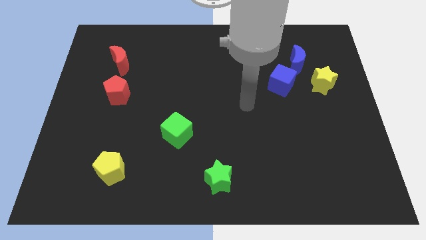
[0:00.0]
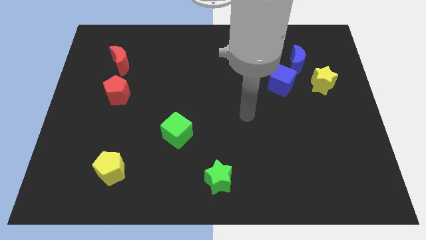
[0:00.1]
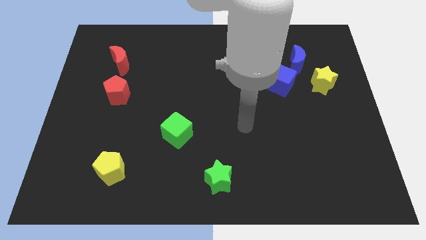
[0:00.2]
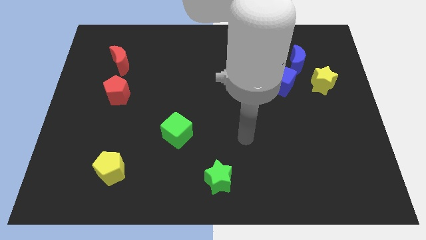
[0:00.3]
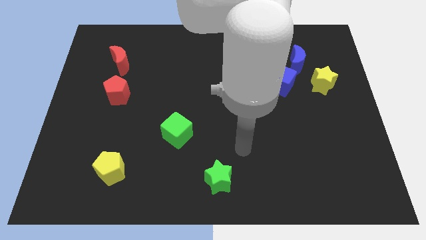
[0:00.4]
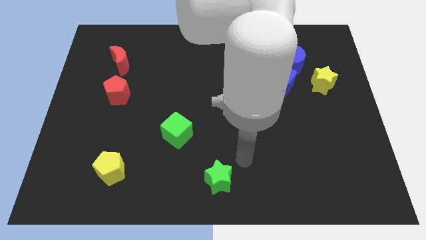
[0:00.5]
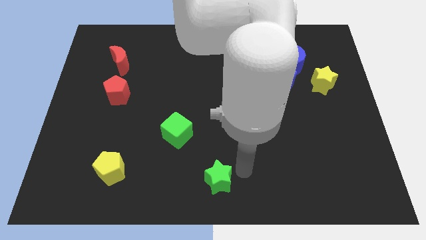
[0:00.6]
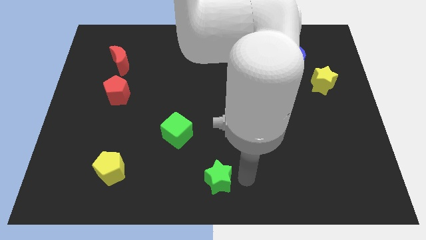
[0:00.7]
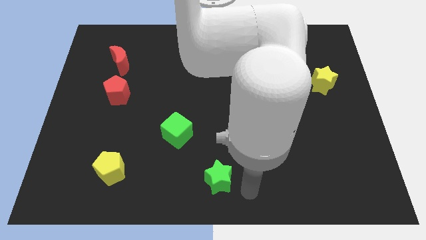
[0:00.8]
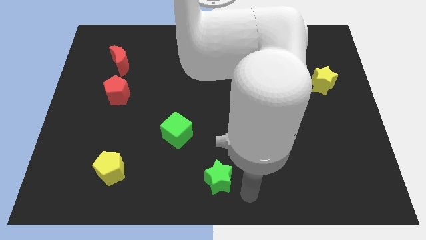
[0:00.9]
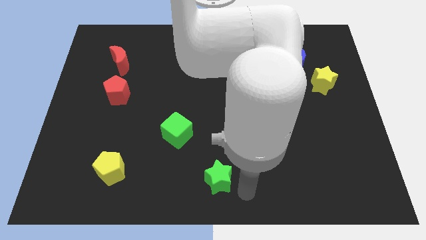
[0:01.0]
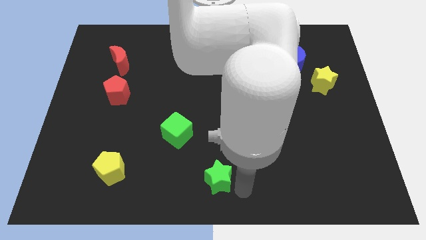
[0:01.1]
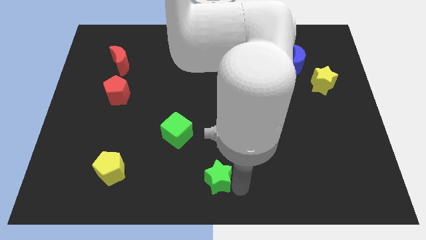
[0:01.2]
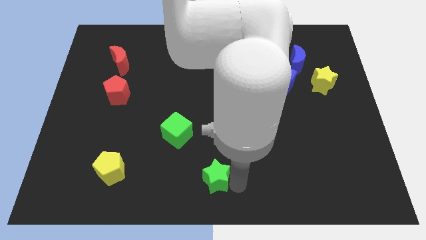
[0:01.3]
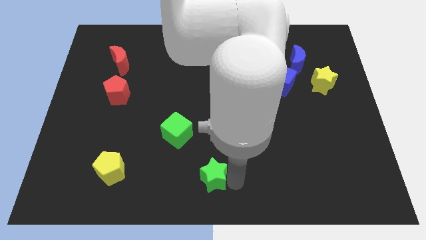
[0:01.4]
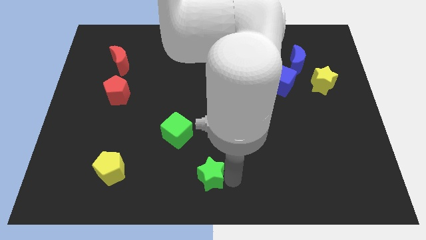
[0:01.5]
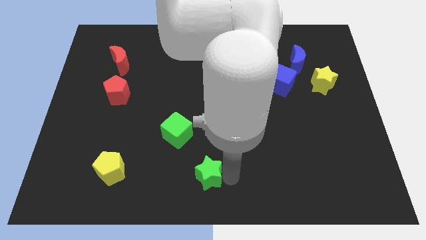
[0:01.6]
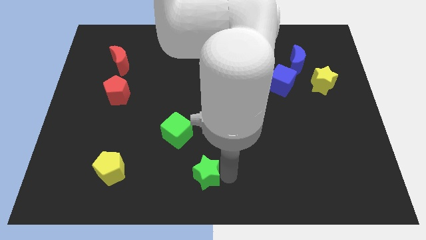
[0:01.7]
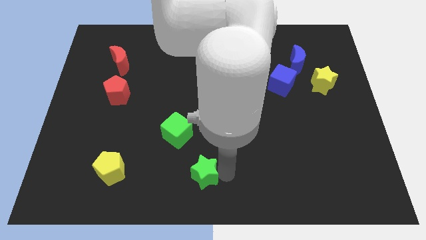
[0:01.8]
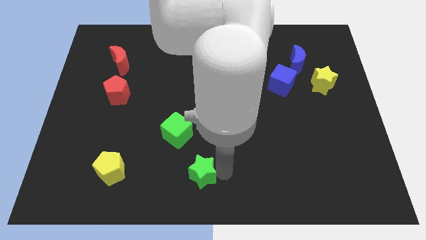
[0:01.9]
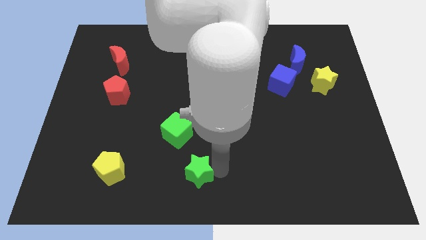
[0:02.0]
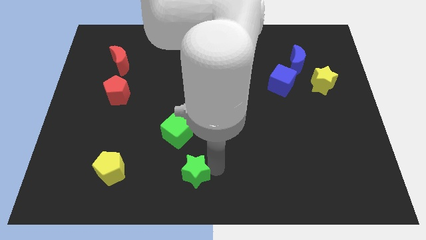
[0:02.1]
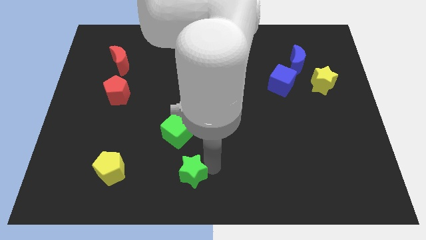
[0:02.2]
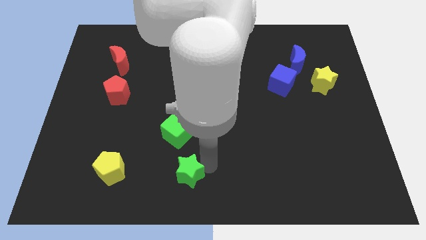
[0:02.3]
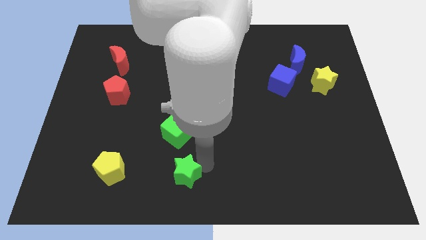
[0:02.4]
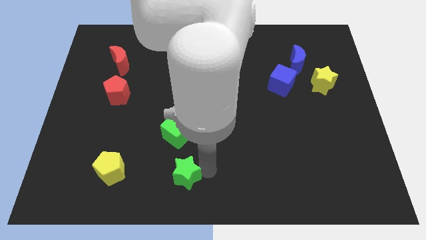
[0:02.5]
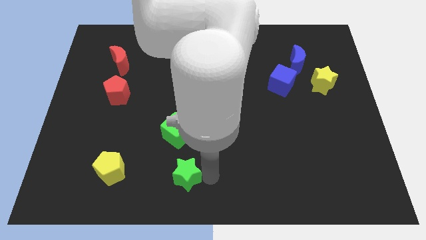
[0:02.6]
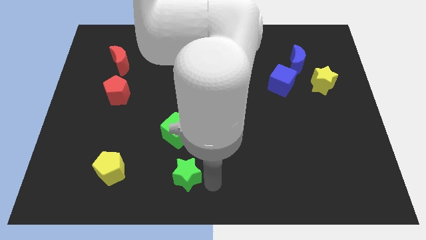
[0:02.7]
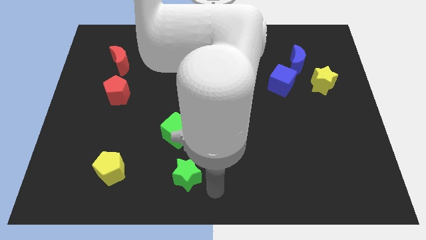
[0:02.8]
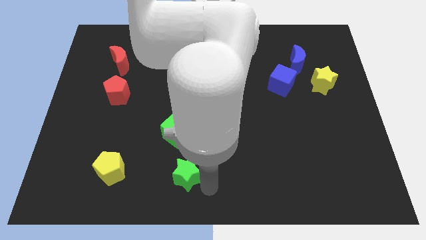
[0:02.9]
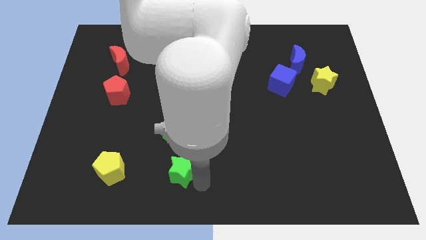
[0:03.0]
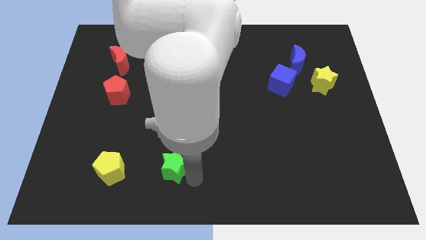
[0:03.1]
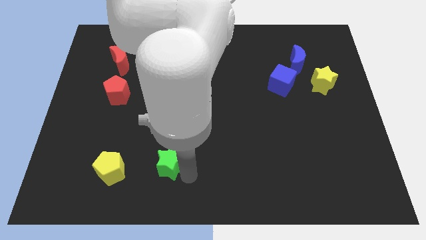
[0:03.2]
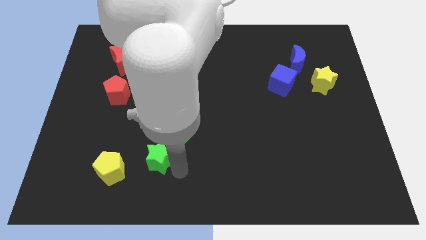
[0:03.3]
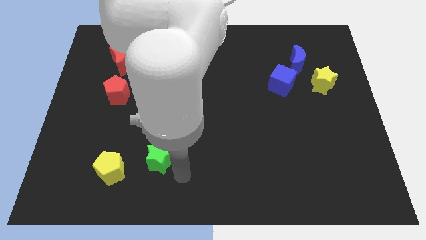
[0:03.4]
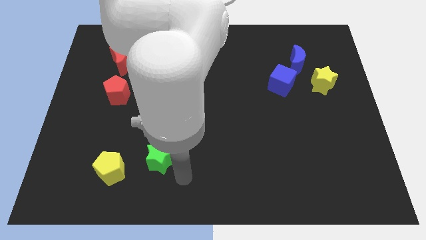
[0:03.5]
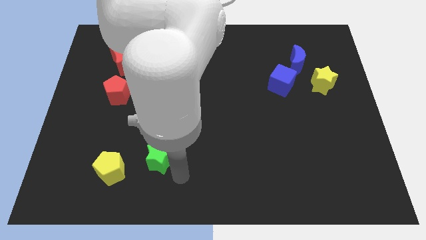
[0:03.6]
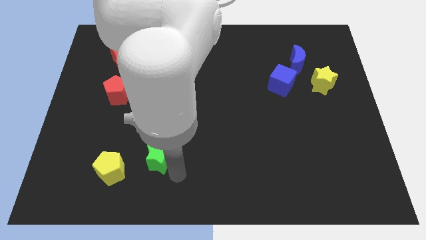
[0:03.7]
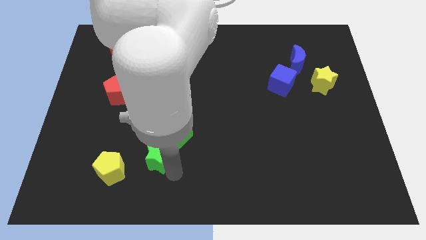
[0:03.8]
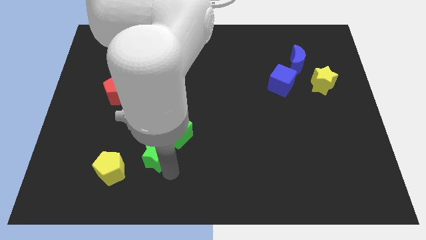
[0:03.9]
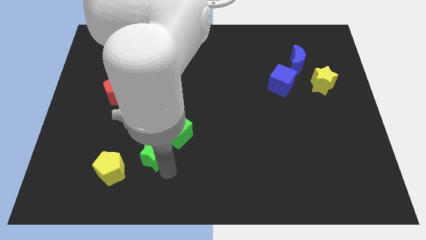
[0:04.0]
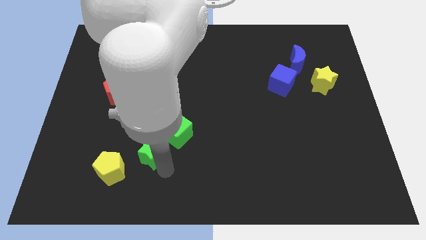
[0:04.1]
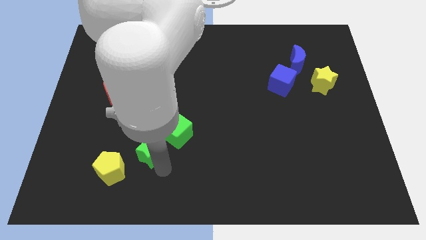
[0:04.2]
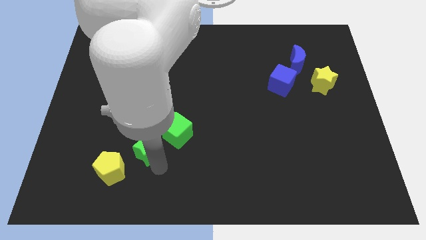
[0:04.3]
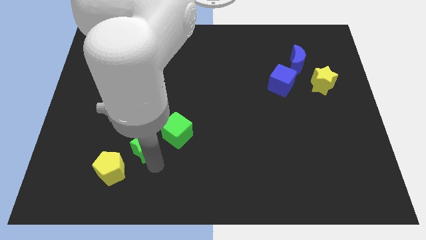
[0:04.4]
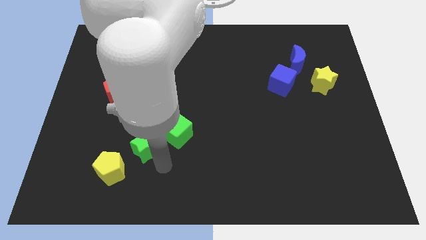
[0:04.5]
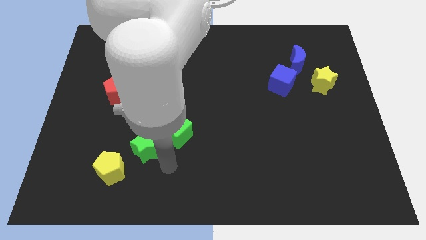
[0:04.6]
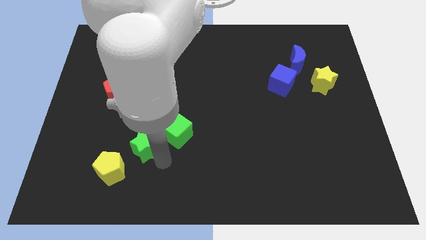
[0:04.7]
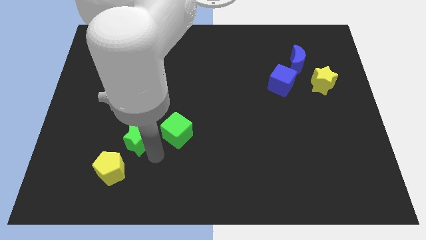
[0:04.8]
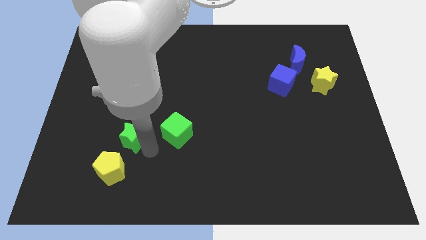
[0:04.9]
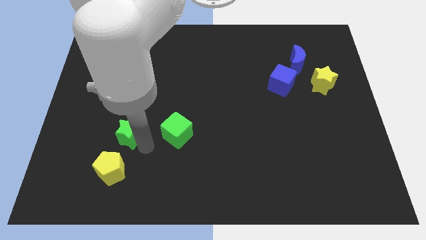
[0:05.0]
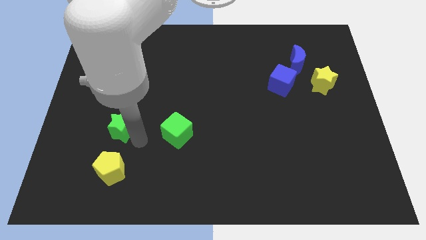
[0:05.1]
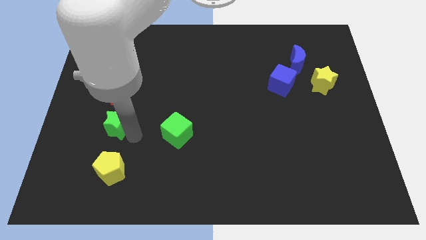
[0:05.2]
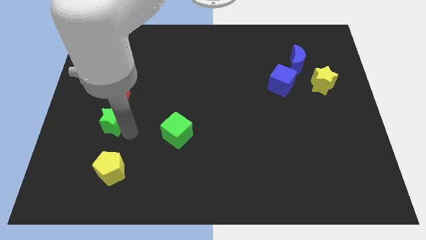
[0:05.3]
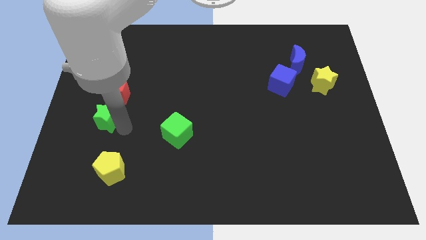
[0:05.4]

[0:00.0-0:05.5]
move the green star to the bottom left side of the red pentagon

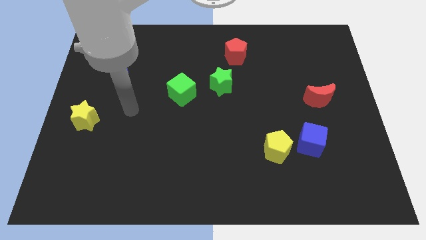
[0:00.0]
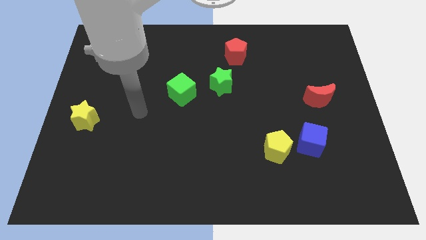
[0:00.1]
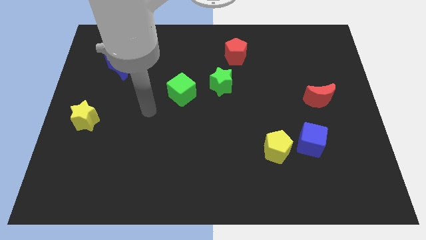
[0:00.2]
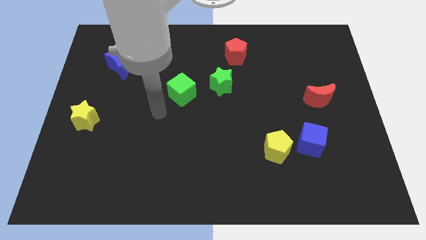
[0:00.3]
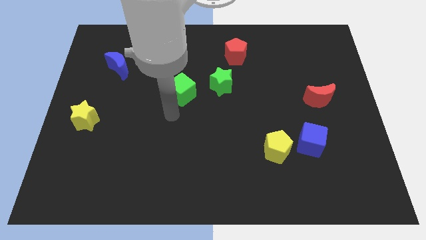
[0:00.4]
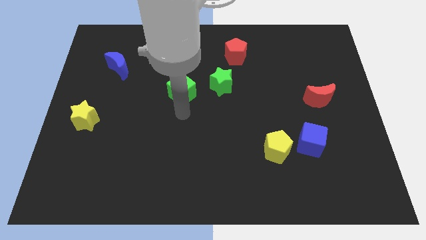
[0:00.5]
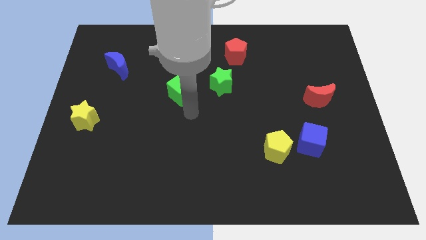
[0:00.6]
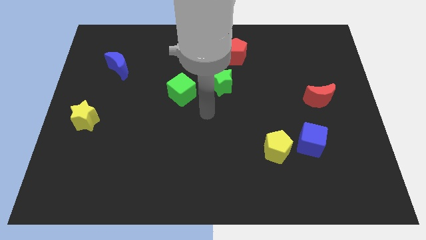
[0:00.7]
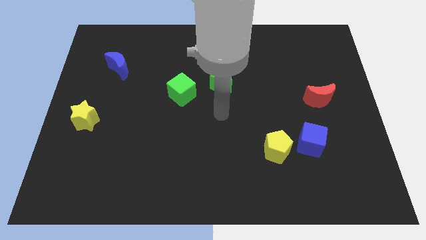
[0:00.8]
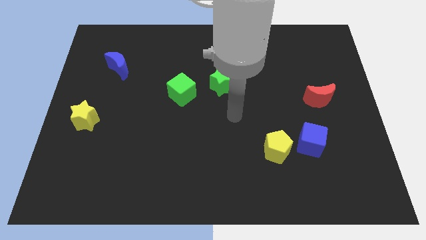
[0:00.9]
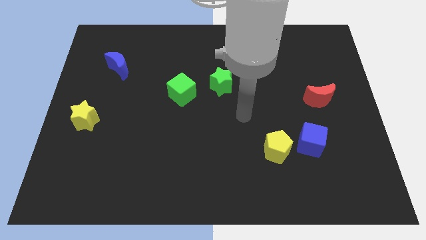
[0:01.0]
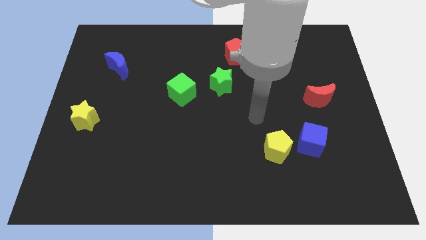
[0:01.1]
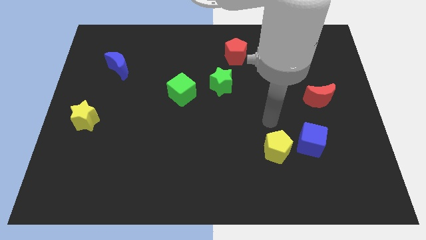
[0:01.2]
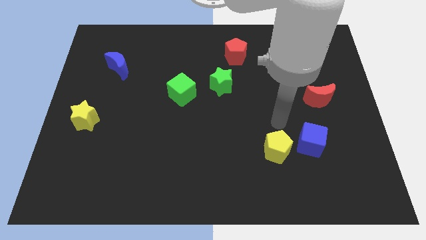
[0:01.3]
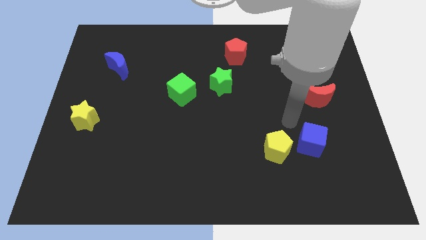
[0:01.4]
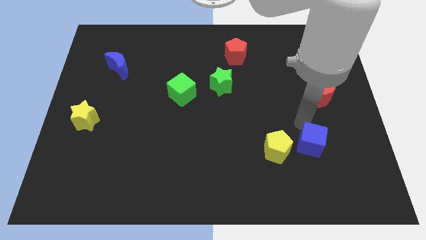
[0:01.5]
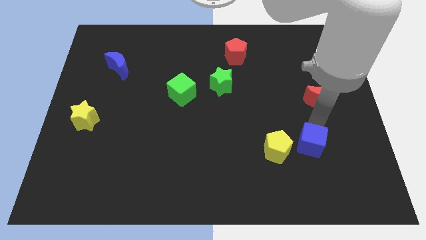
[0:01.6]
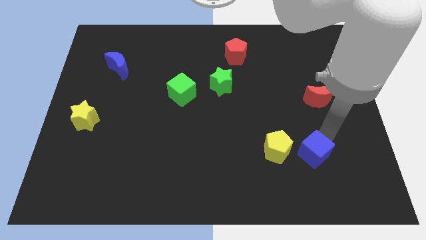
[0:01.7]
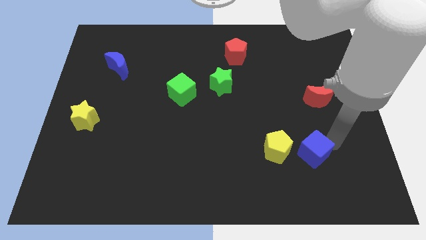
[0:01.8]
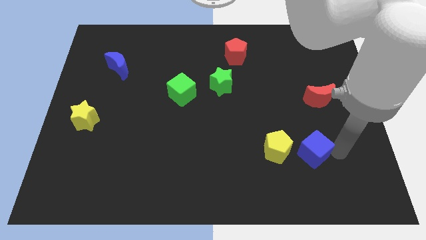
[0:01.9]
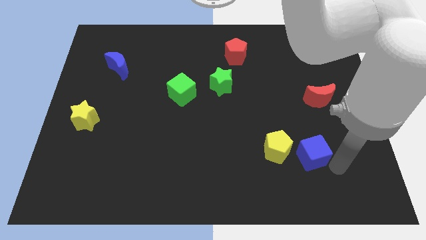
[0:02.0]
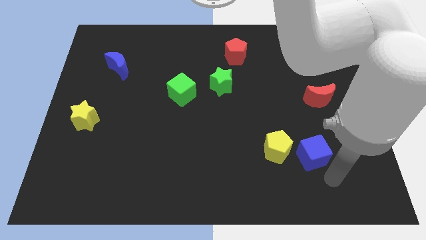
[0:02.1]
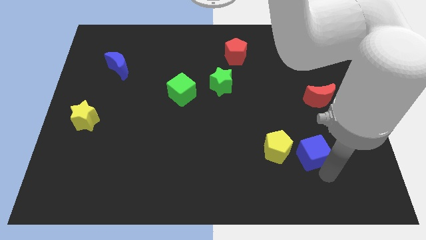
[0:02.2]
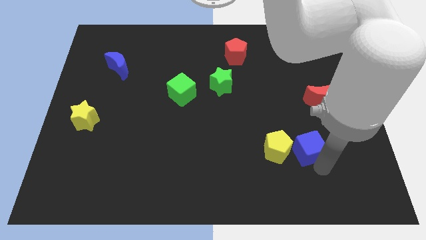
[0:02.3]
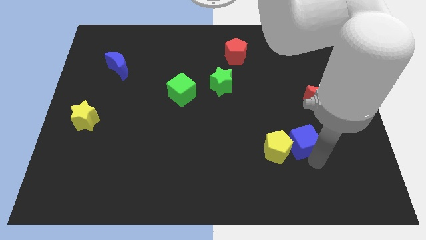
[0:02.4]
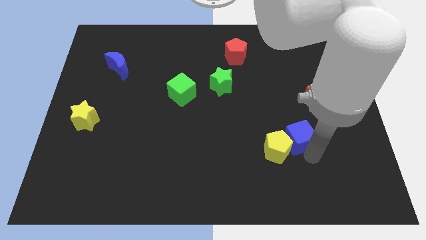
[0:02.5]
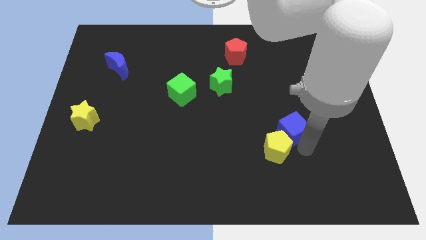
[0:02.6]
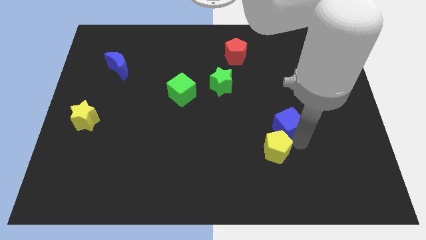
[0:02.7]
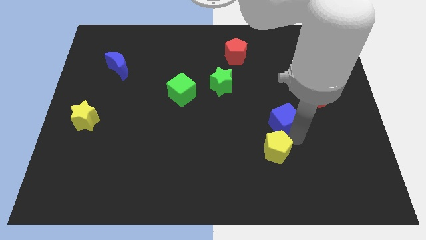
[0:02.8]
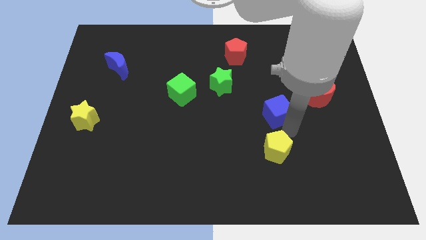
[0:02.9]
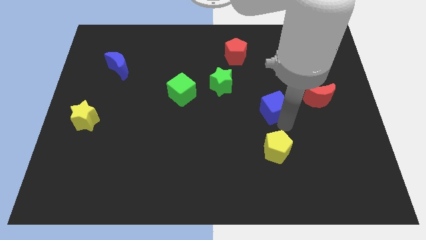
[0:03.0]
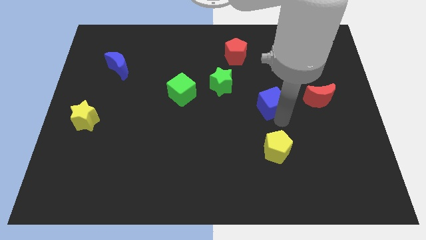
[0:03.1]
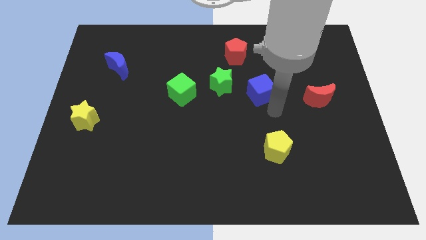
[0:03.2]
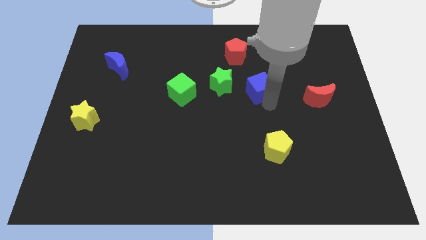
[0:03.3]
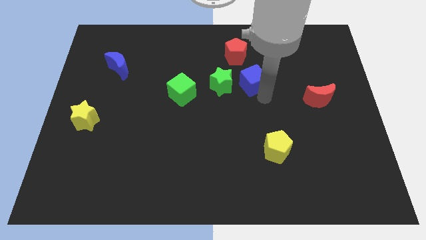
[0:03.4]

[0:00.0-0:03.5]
slide the blue cube diagonally up and to the right of the green star
